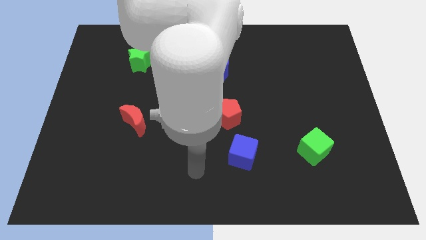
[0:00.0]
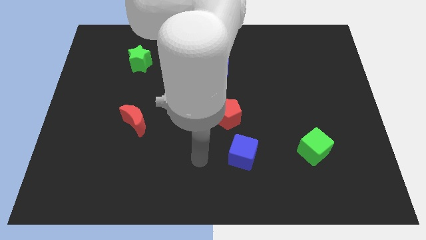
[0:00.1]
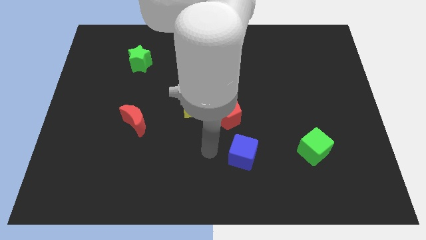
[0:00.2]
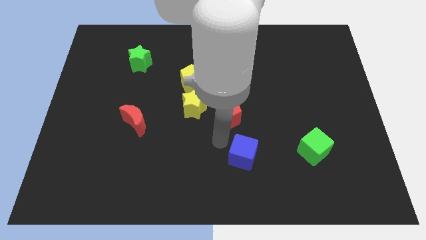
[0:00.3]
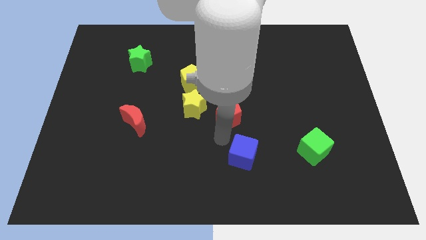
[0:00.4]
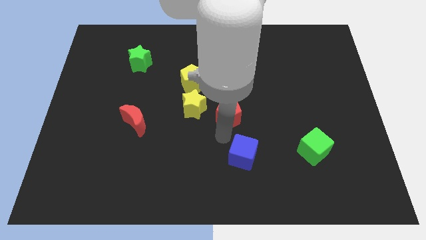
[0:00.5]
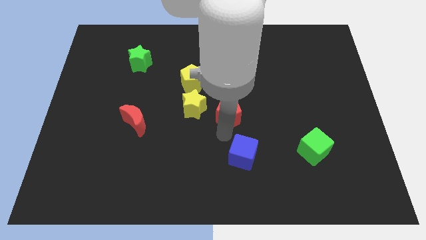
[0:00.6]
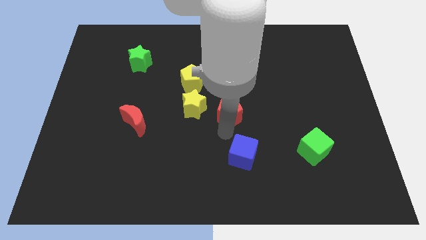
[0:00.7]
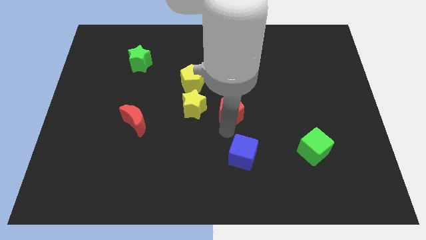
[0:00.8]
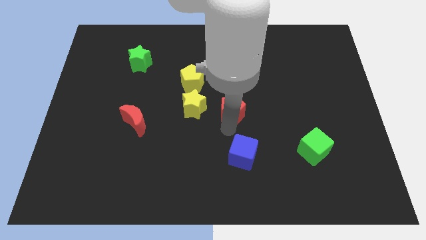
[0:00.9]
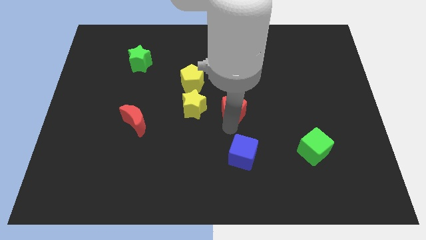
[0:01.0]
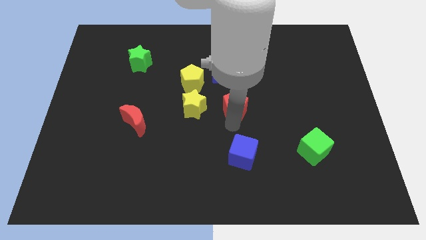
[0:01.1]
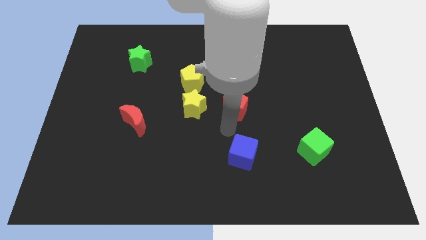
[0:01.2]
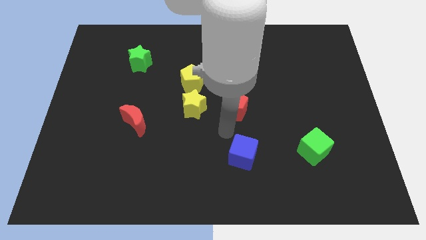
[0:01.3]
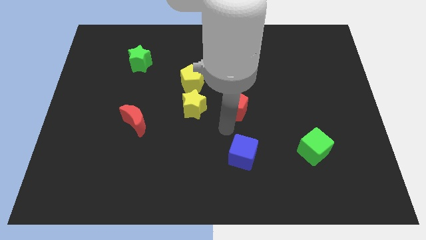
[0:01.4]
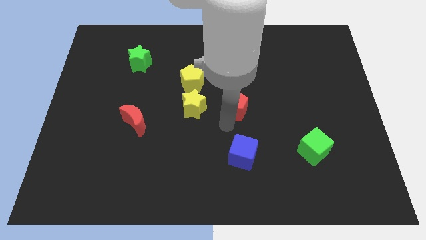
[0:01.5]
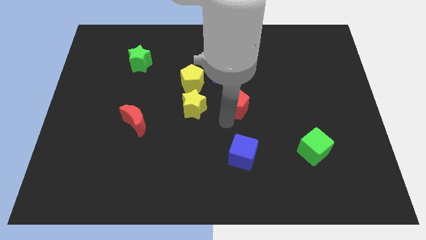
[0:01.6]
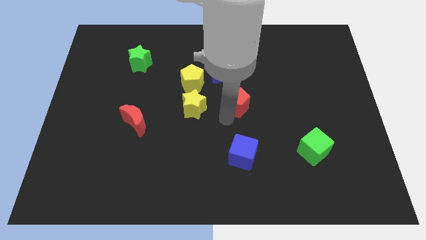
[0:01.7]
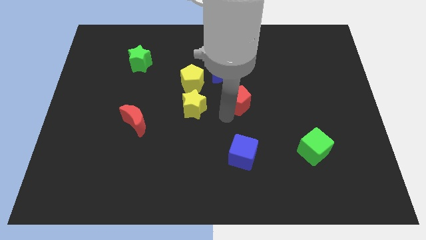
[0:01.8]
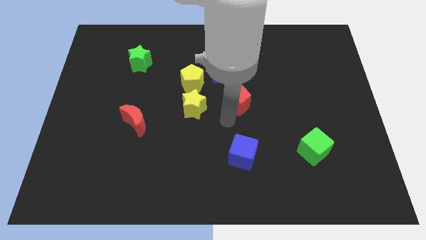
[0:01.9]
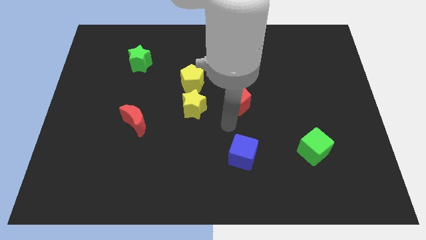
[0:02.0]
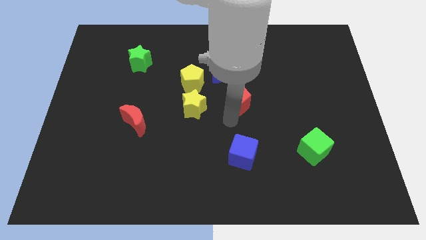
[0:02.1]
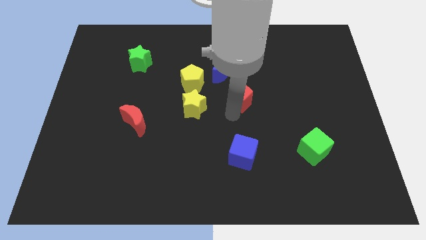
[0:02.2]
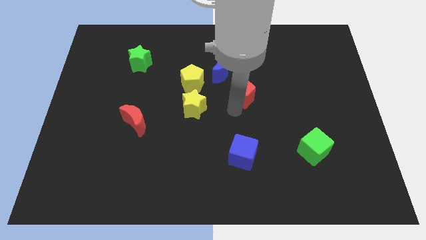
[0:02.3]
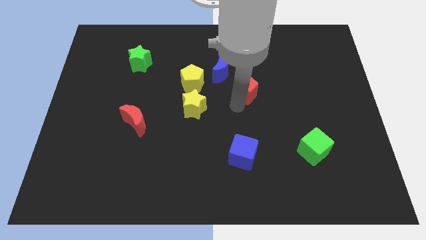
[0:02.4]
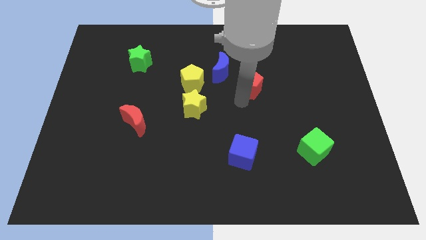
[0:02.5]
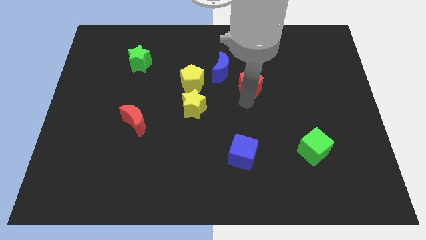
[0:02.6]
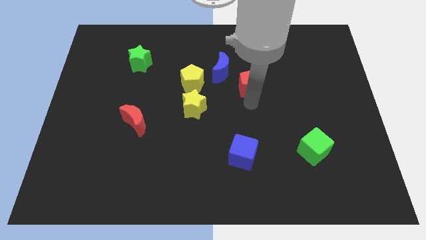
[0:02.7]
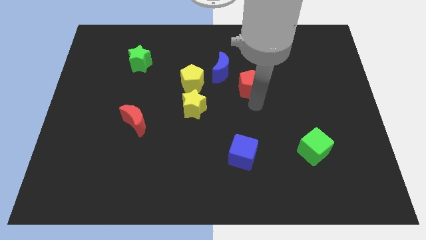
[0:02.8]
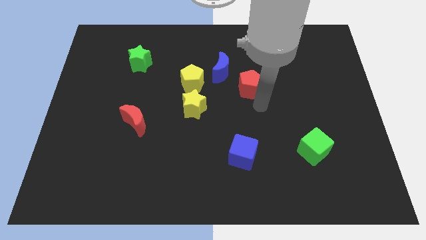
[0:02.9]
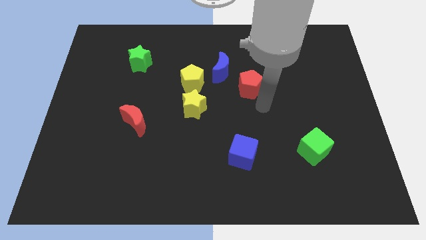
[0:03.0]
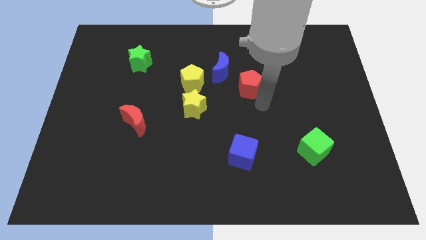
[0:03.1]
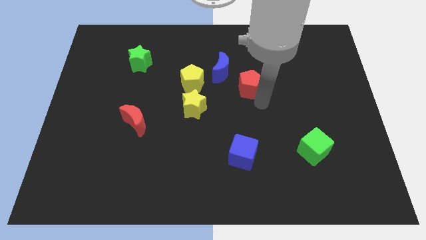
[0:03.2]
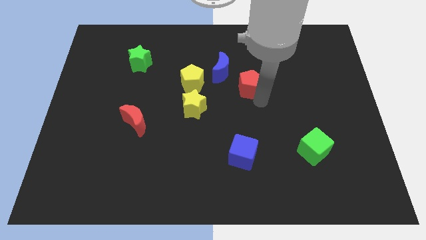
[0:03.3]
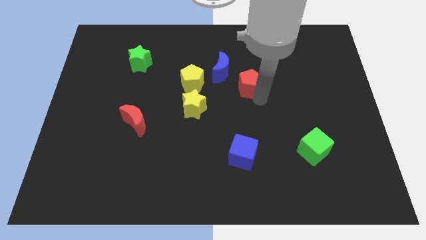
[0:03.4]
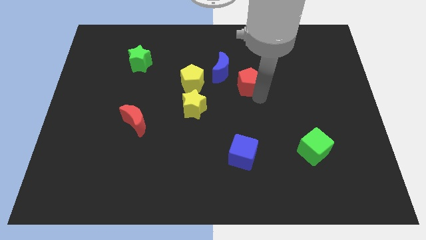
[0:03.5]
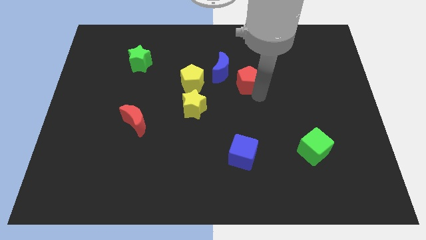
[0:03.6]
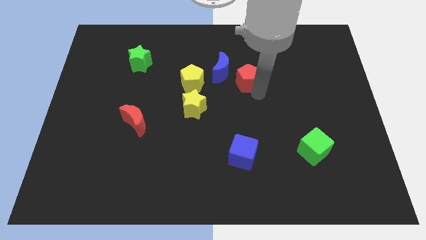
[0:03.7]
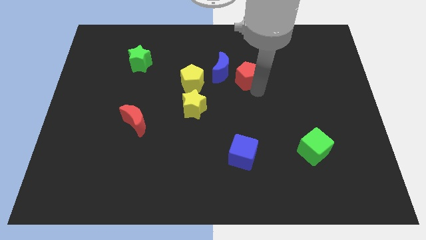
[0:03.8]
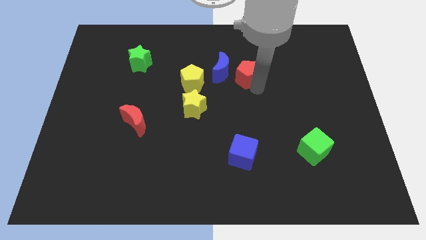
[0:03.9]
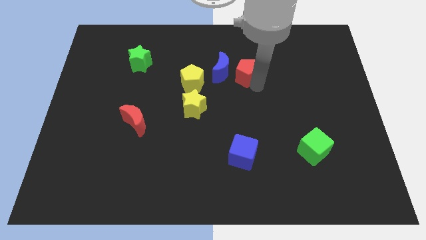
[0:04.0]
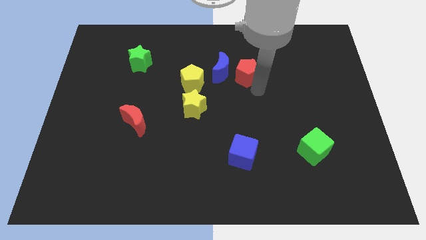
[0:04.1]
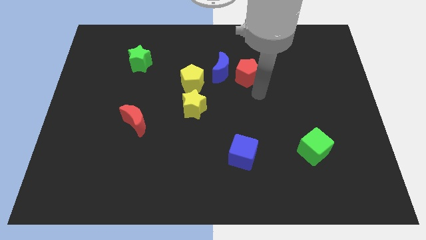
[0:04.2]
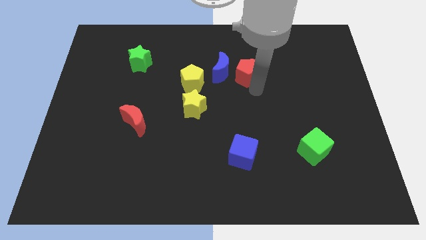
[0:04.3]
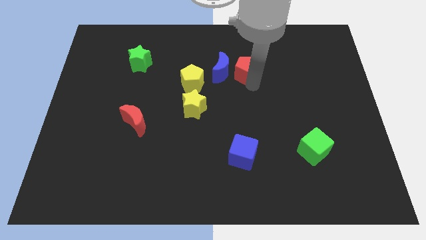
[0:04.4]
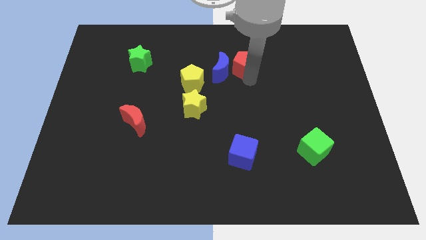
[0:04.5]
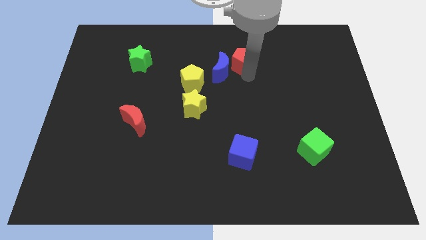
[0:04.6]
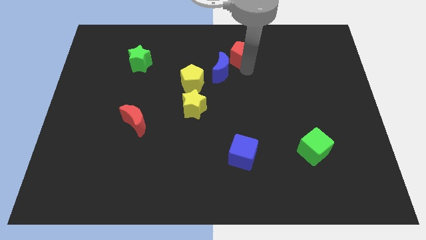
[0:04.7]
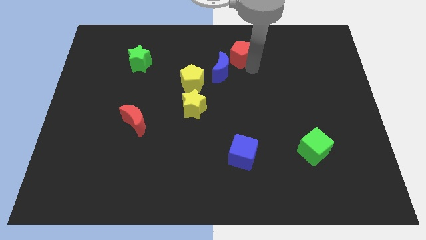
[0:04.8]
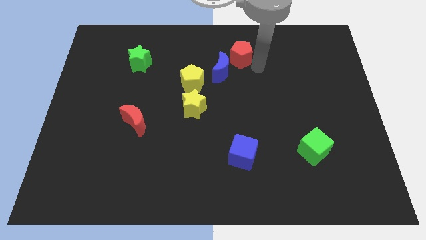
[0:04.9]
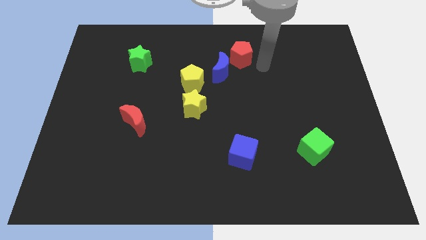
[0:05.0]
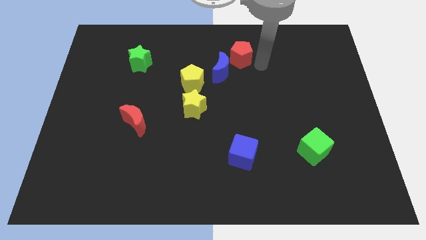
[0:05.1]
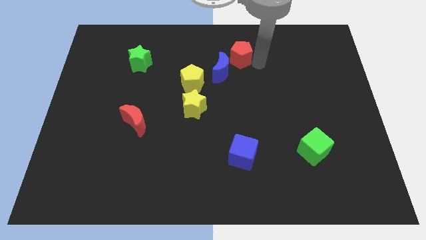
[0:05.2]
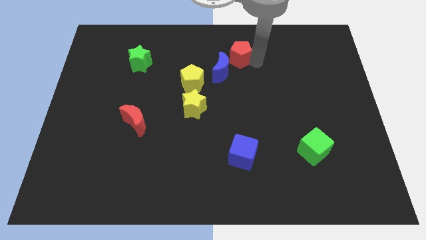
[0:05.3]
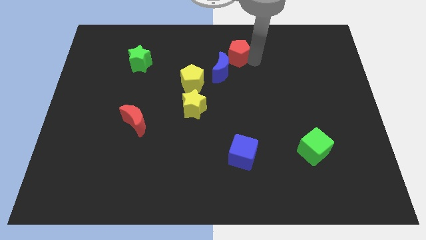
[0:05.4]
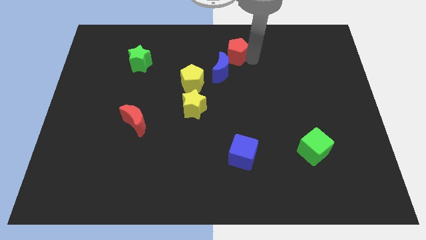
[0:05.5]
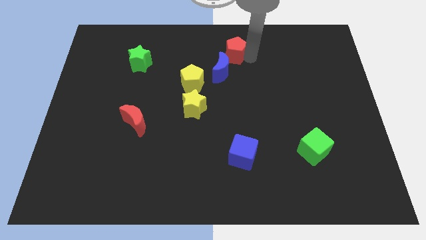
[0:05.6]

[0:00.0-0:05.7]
put the red pentagon to the top

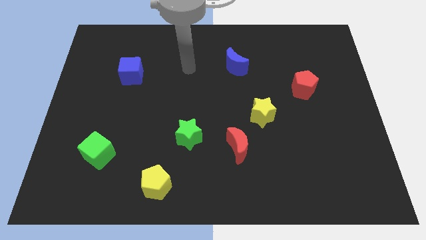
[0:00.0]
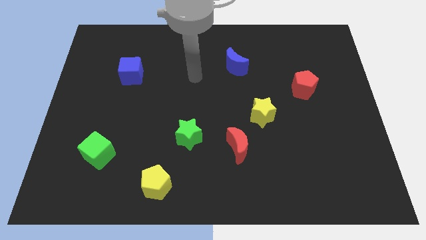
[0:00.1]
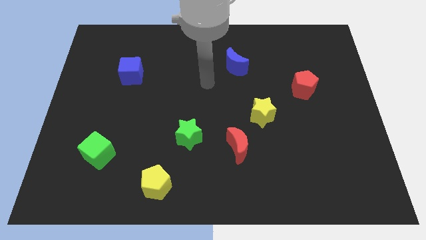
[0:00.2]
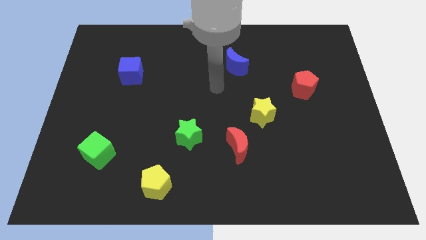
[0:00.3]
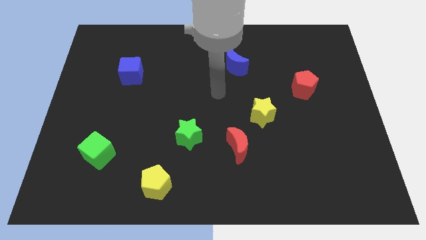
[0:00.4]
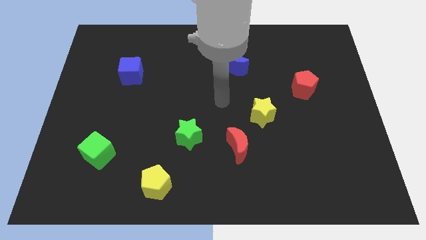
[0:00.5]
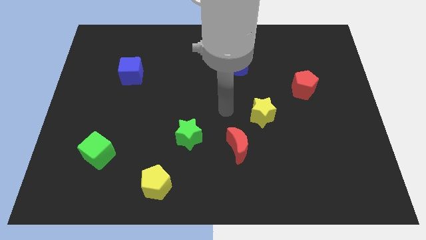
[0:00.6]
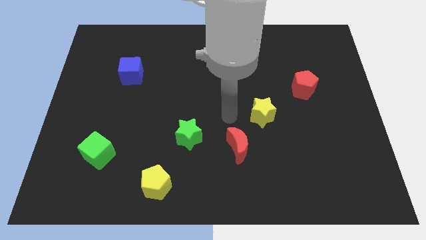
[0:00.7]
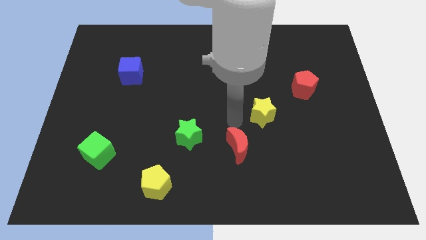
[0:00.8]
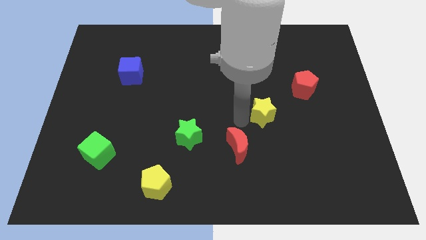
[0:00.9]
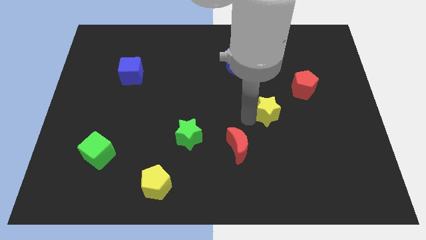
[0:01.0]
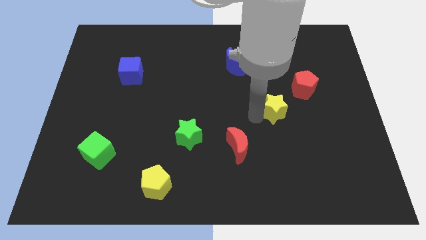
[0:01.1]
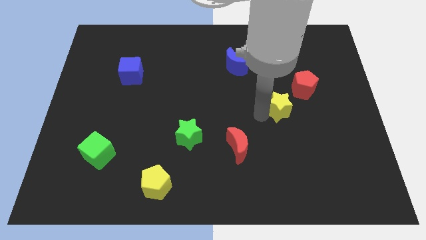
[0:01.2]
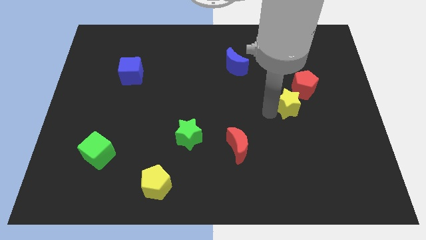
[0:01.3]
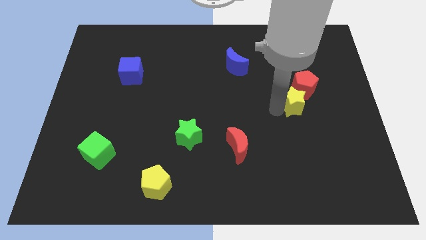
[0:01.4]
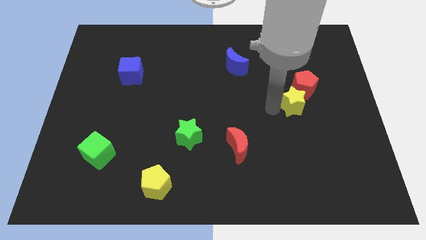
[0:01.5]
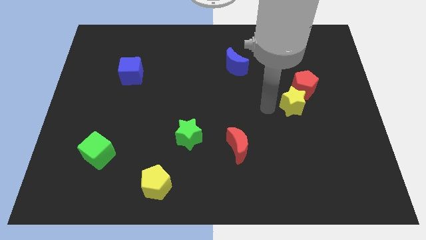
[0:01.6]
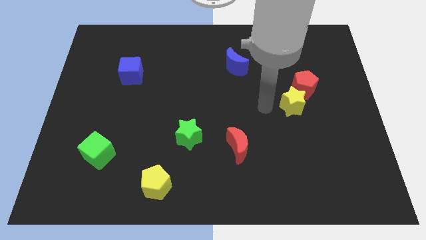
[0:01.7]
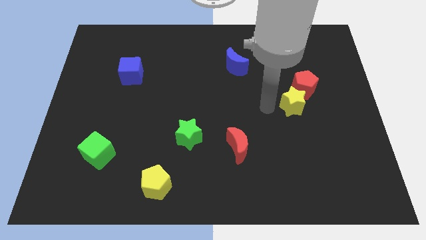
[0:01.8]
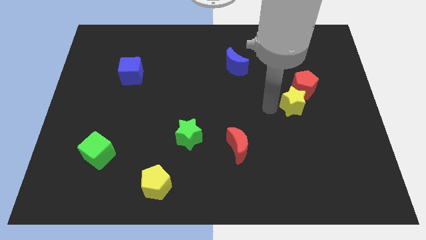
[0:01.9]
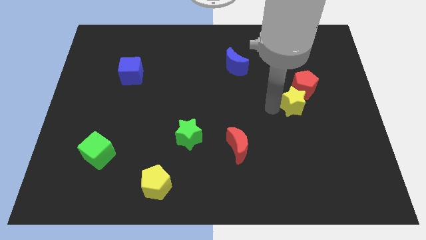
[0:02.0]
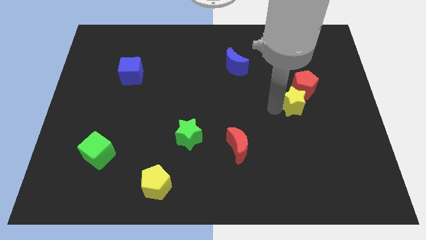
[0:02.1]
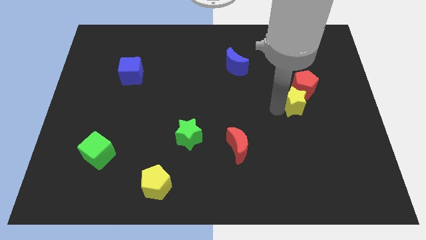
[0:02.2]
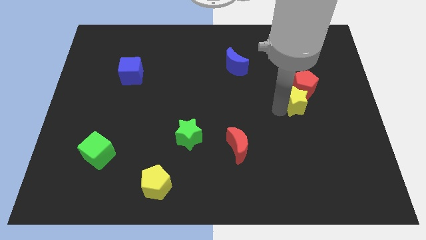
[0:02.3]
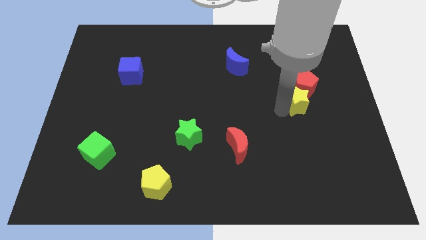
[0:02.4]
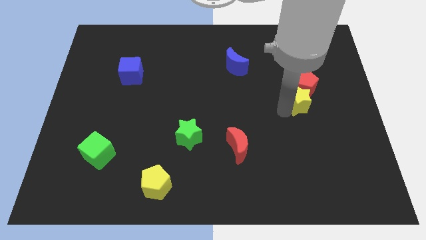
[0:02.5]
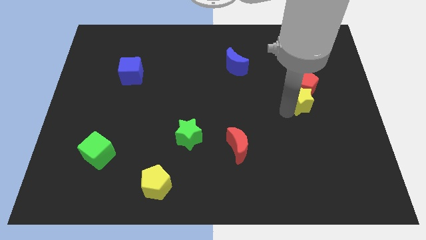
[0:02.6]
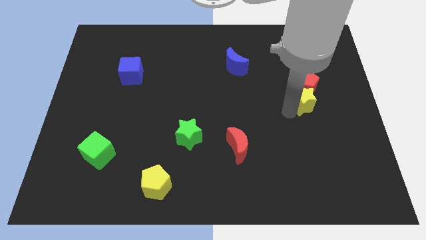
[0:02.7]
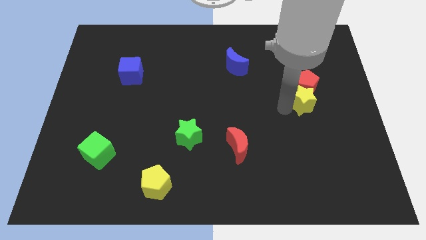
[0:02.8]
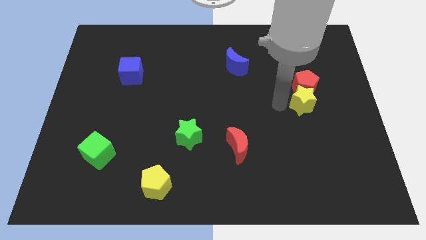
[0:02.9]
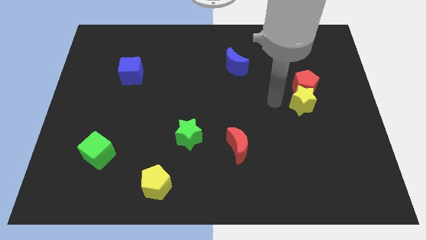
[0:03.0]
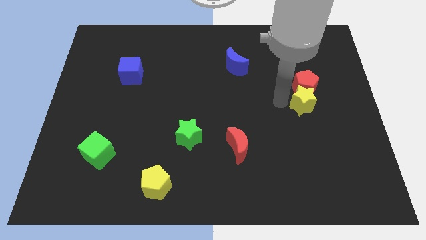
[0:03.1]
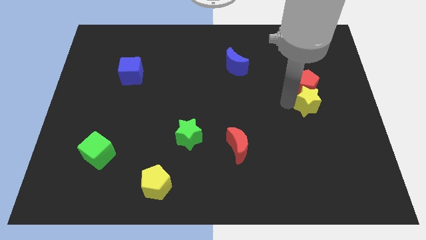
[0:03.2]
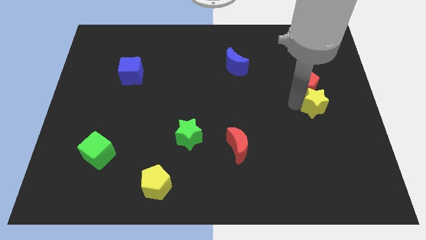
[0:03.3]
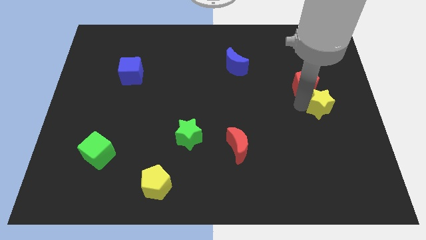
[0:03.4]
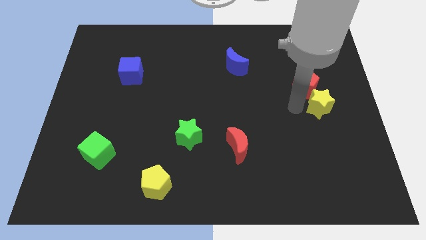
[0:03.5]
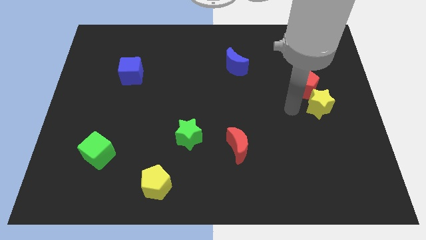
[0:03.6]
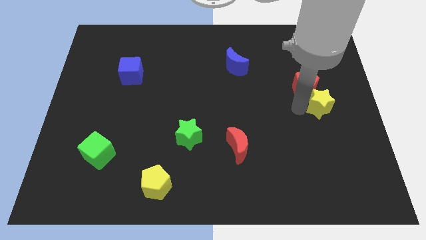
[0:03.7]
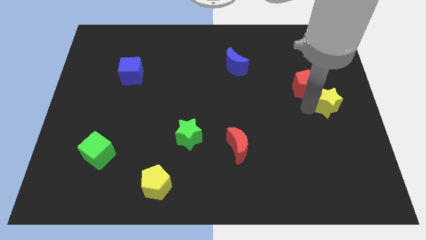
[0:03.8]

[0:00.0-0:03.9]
slide the yellow star to the right side
